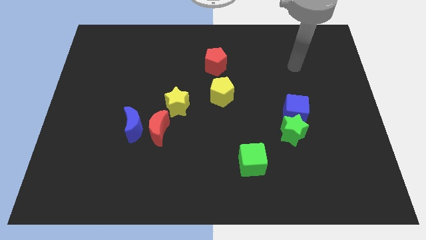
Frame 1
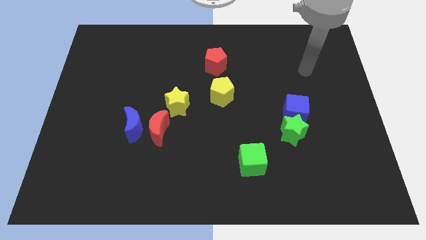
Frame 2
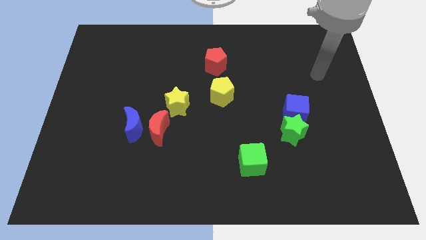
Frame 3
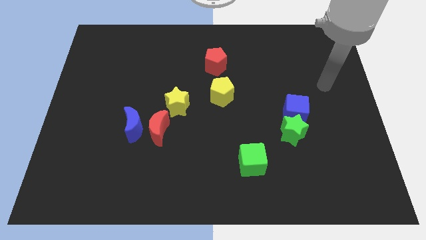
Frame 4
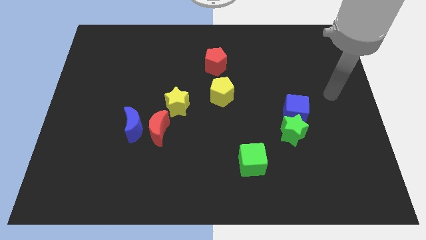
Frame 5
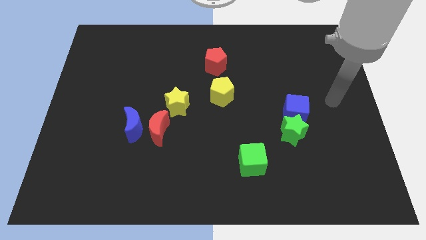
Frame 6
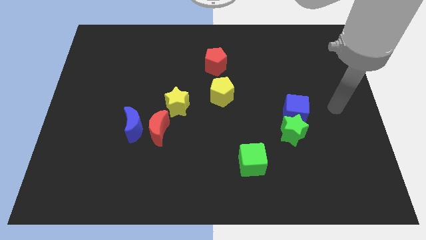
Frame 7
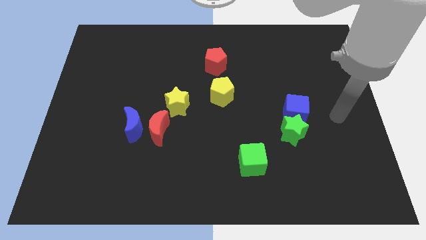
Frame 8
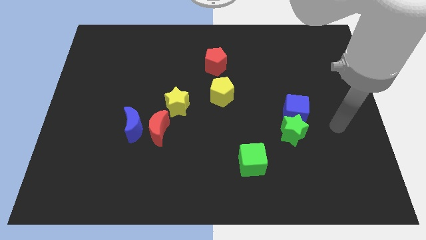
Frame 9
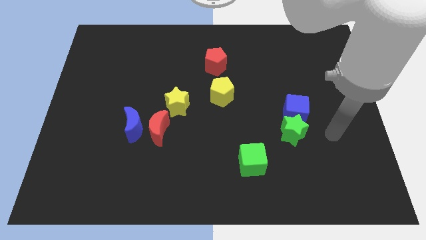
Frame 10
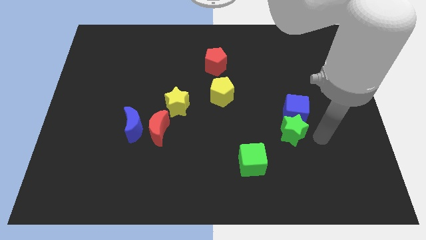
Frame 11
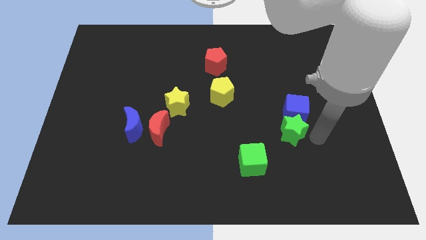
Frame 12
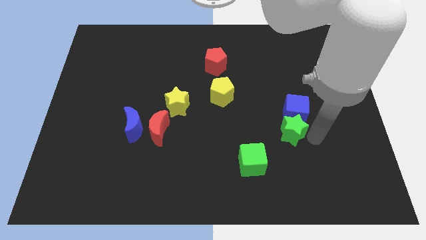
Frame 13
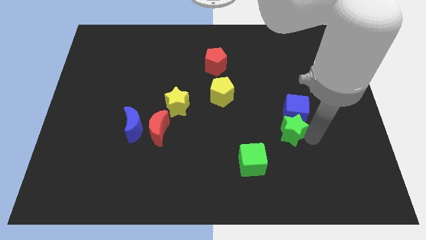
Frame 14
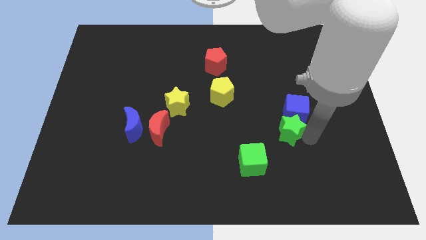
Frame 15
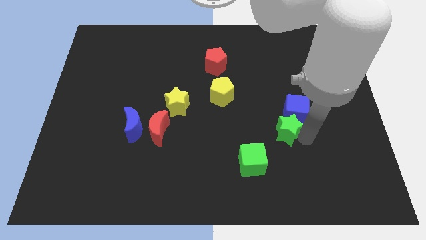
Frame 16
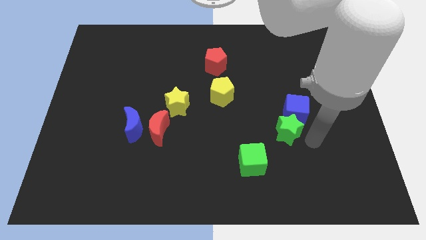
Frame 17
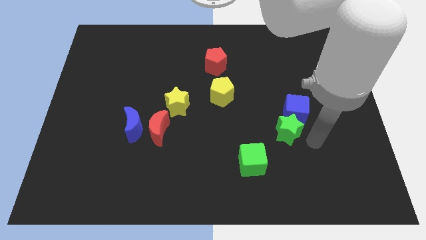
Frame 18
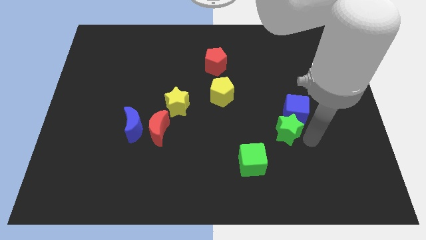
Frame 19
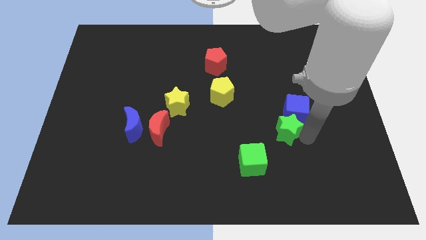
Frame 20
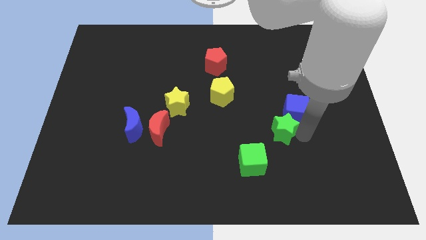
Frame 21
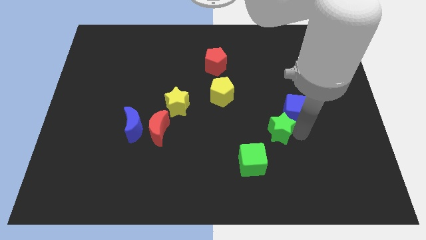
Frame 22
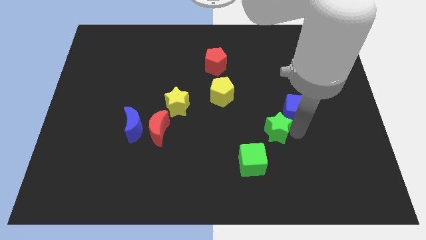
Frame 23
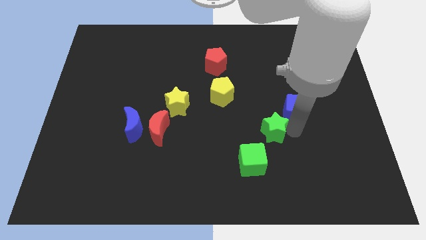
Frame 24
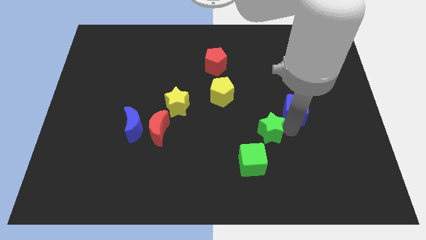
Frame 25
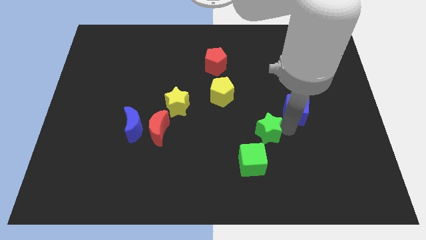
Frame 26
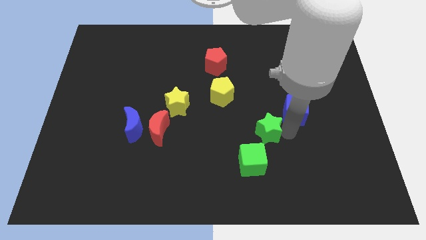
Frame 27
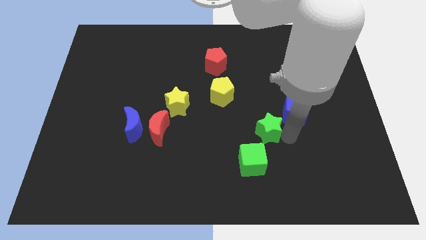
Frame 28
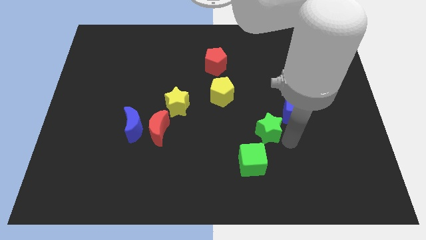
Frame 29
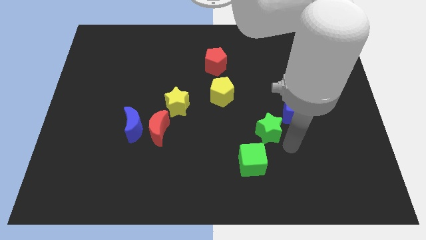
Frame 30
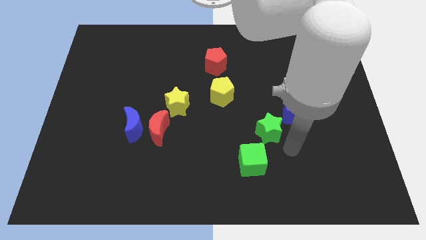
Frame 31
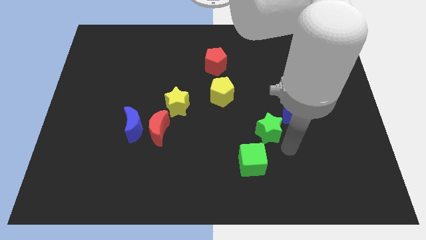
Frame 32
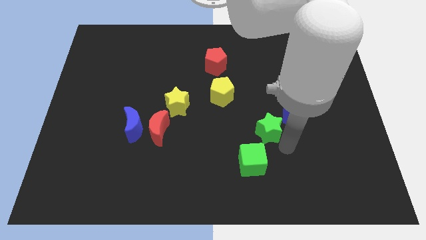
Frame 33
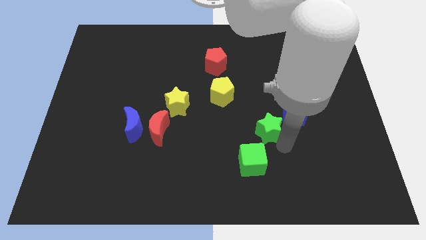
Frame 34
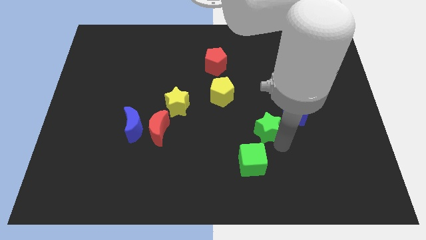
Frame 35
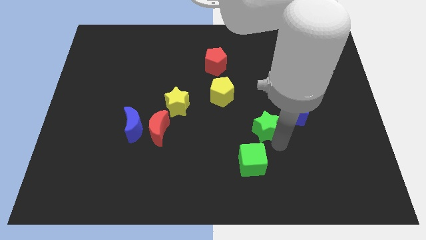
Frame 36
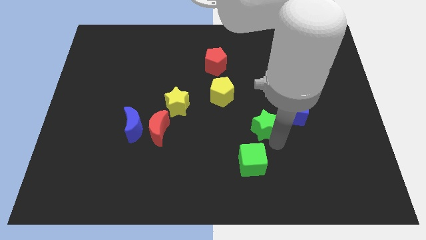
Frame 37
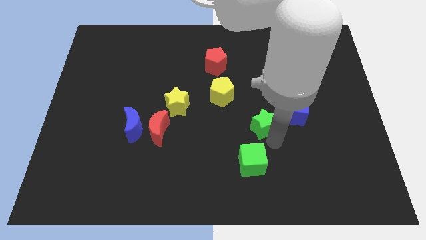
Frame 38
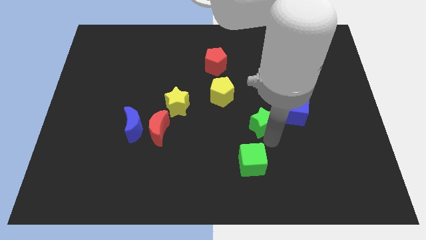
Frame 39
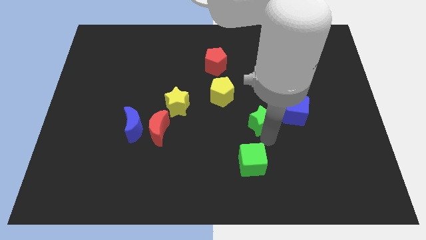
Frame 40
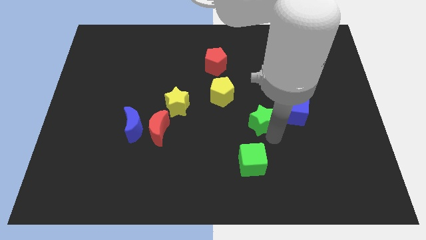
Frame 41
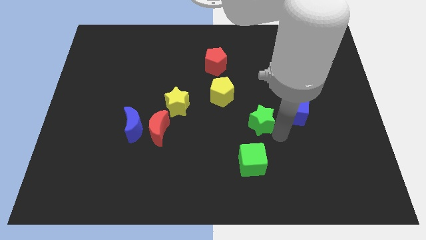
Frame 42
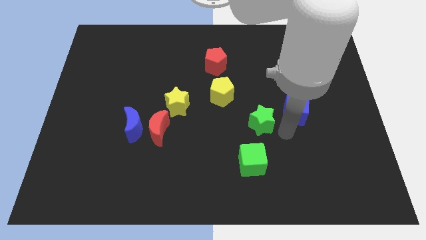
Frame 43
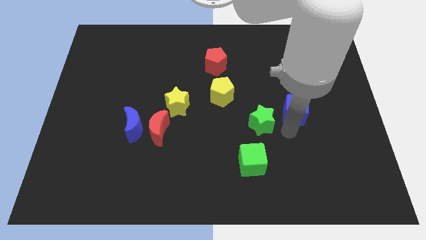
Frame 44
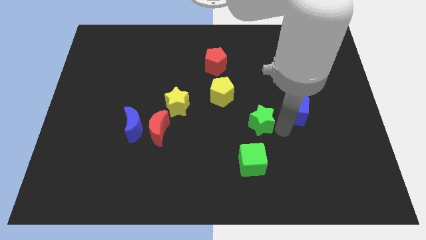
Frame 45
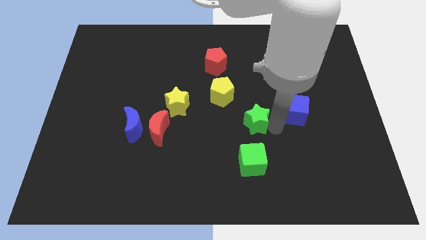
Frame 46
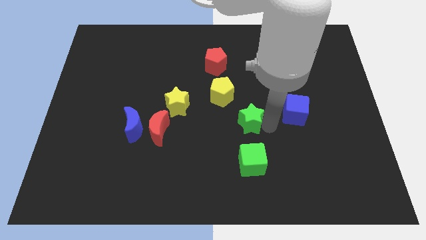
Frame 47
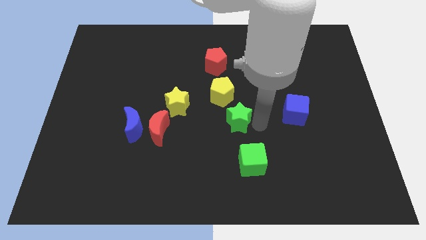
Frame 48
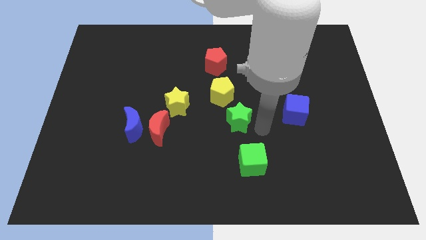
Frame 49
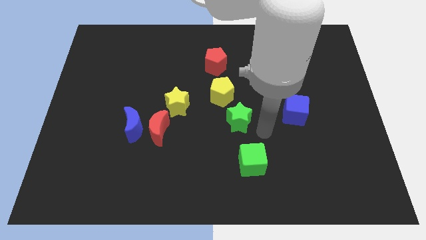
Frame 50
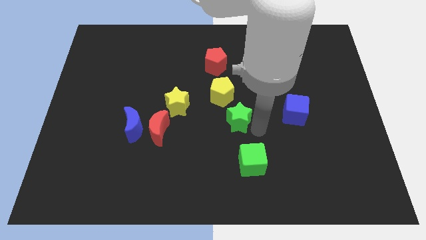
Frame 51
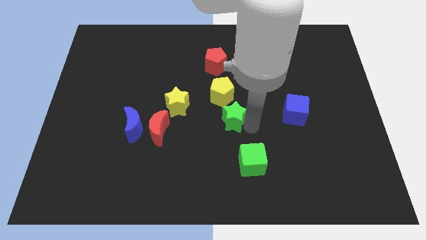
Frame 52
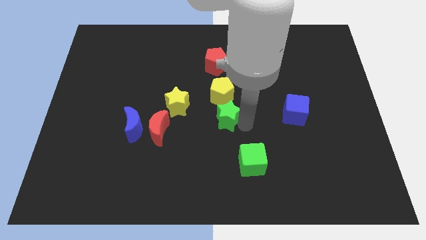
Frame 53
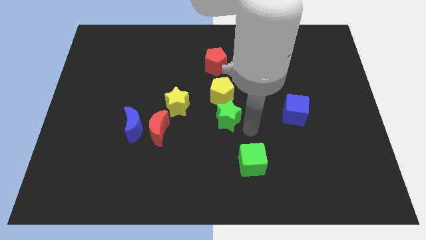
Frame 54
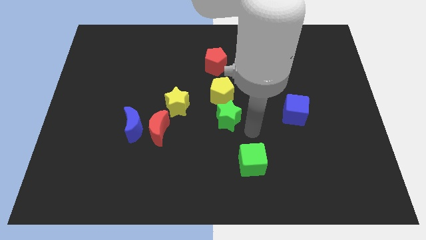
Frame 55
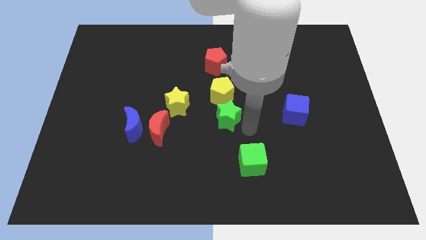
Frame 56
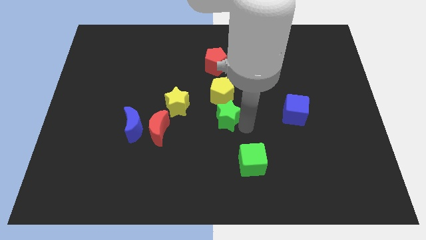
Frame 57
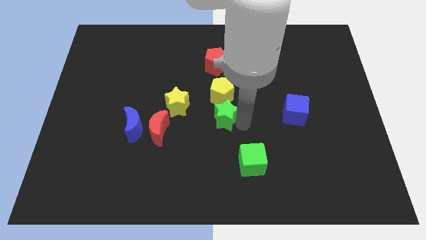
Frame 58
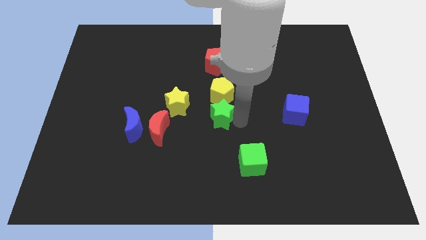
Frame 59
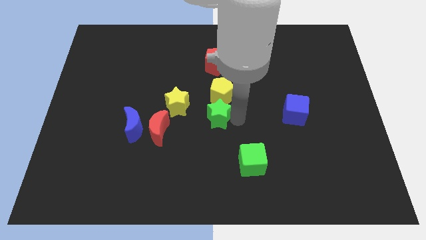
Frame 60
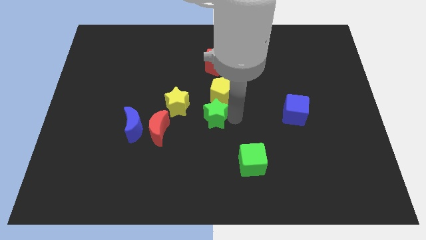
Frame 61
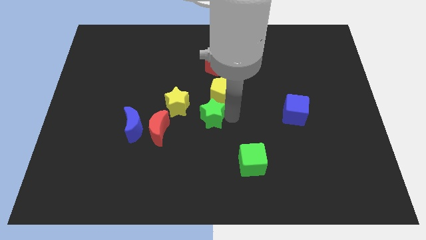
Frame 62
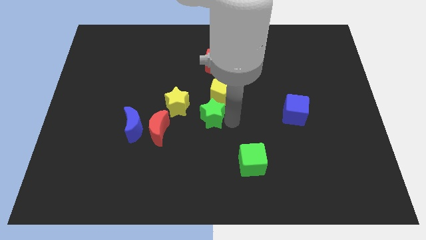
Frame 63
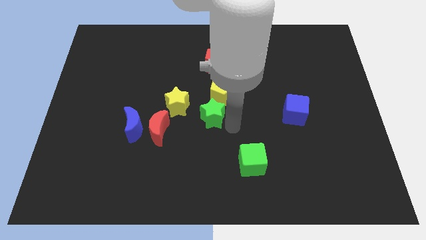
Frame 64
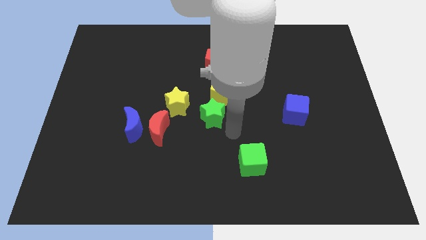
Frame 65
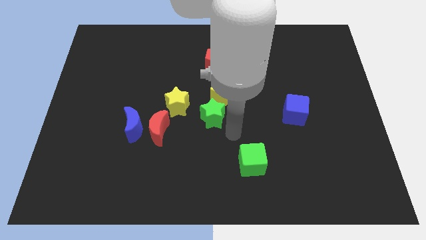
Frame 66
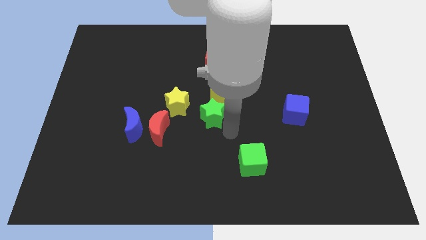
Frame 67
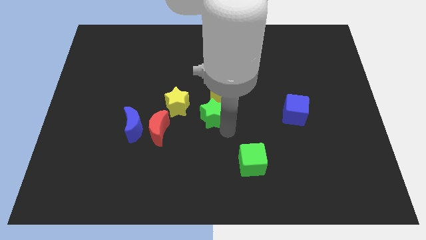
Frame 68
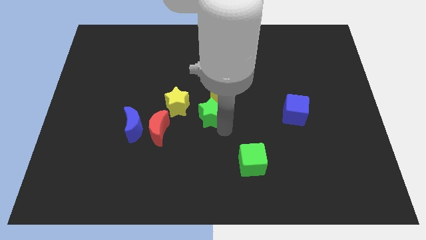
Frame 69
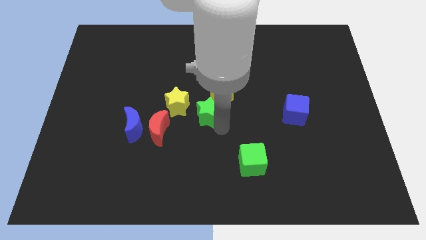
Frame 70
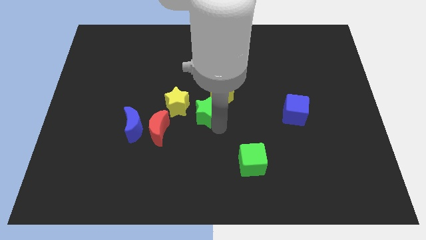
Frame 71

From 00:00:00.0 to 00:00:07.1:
move the green star diagonally up and to the right of the red moon

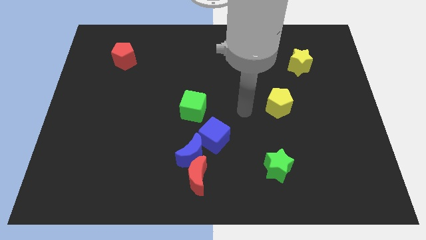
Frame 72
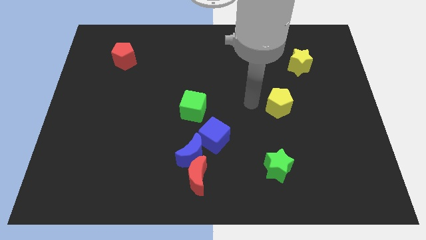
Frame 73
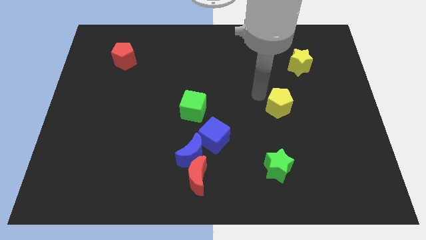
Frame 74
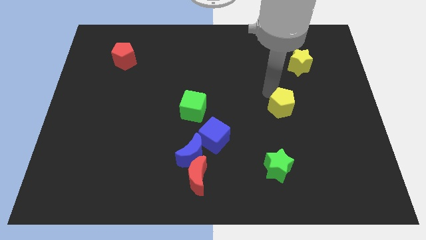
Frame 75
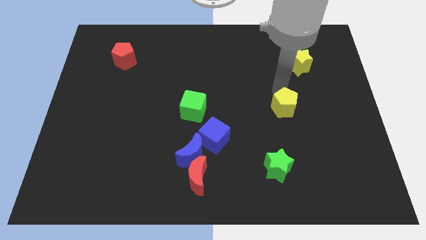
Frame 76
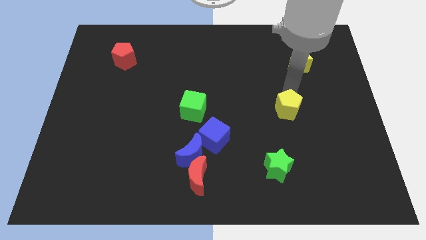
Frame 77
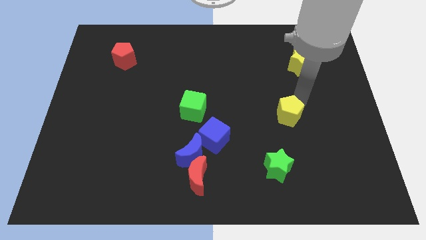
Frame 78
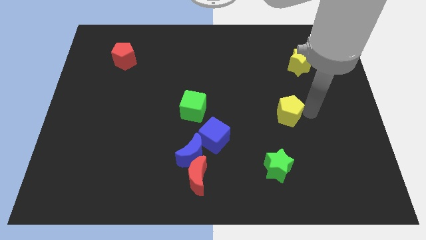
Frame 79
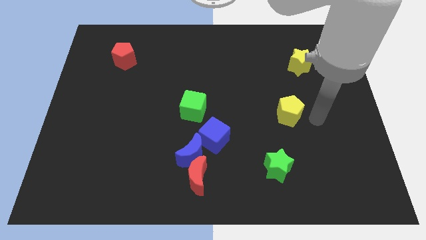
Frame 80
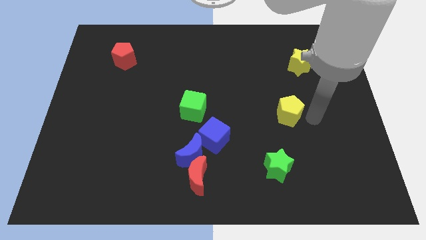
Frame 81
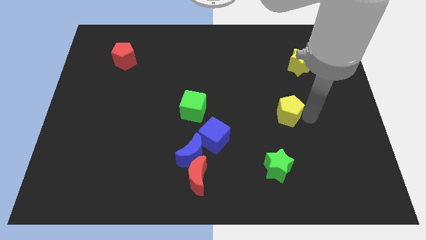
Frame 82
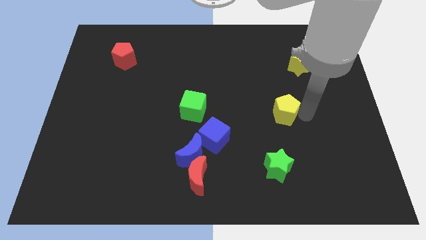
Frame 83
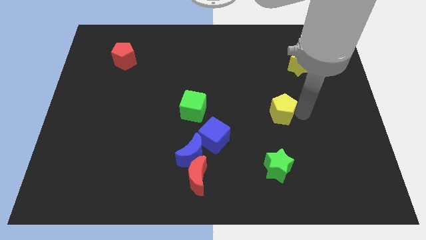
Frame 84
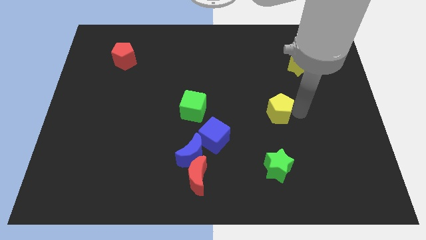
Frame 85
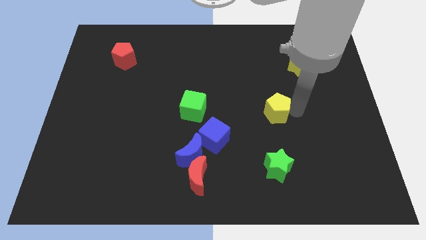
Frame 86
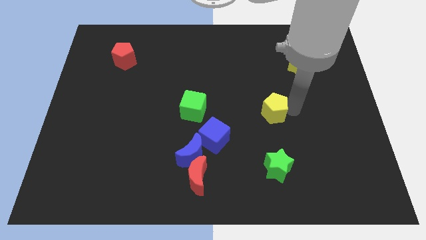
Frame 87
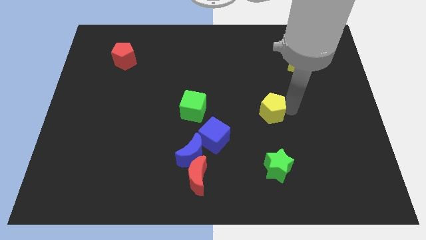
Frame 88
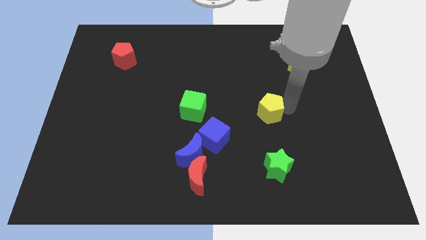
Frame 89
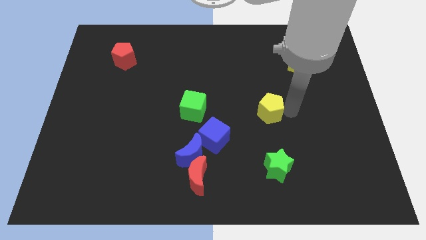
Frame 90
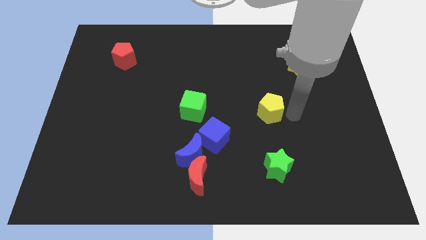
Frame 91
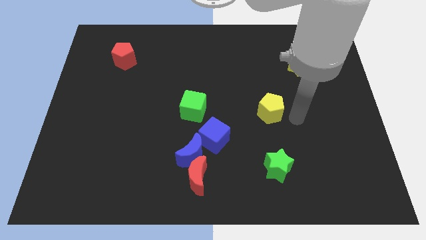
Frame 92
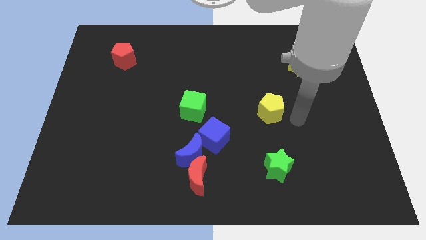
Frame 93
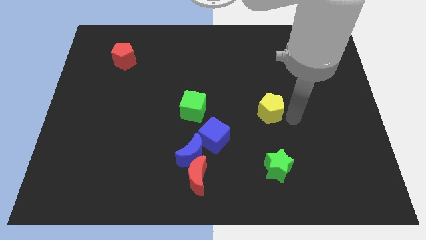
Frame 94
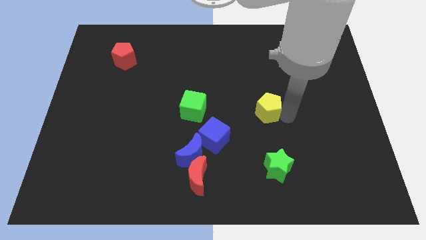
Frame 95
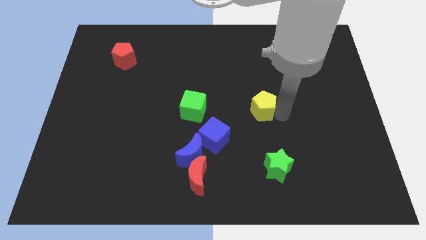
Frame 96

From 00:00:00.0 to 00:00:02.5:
move the yellow pentagon to the right of the green cube
